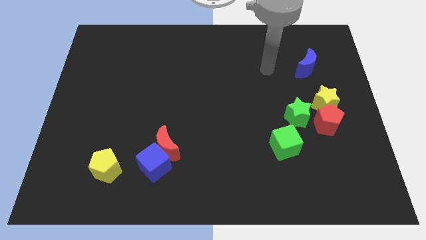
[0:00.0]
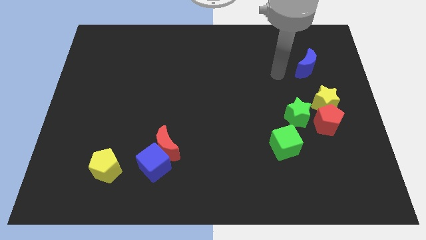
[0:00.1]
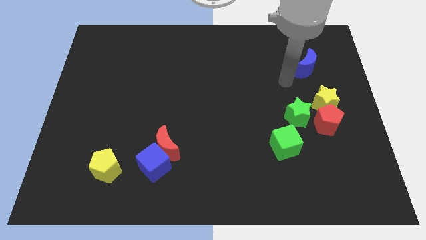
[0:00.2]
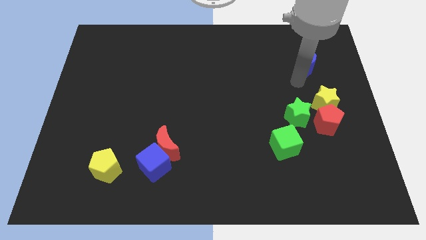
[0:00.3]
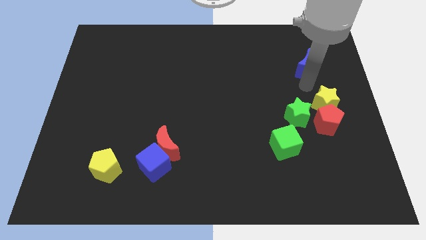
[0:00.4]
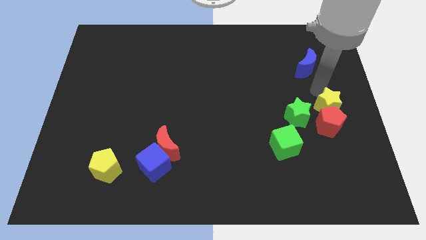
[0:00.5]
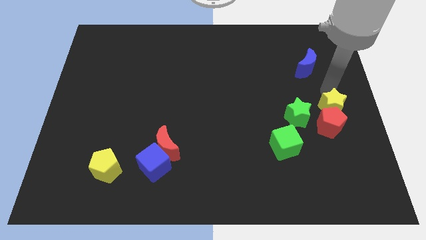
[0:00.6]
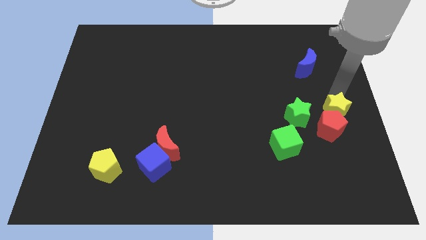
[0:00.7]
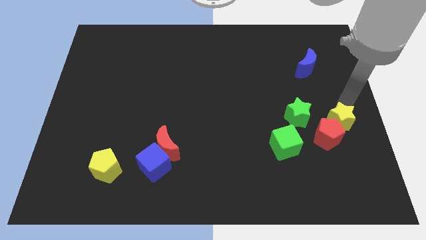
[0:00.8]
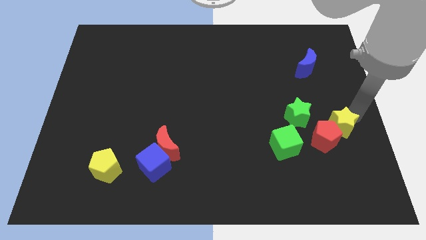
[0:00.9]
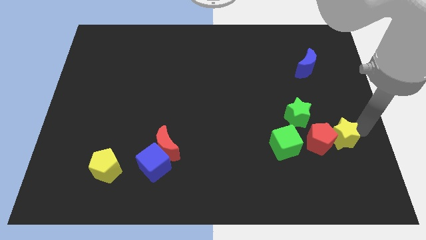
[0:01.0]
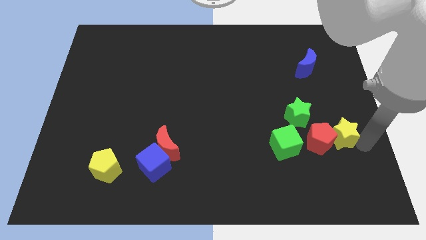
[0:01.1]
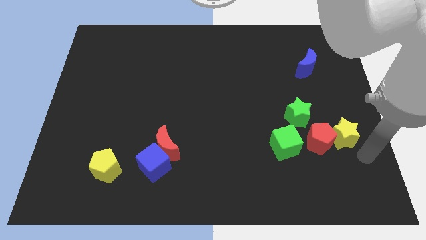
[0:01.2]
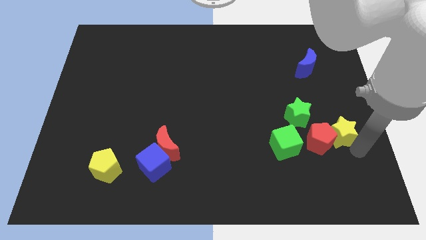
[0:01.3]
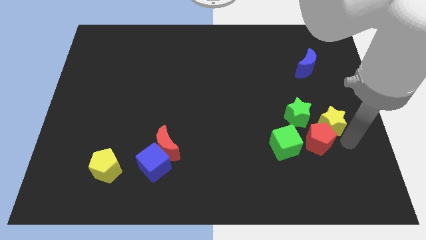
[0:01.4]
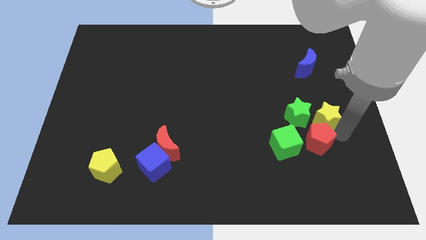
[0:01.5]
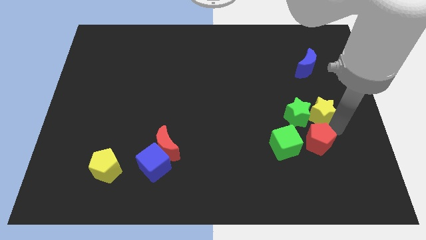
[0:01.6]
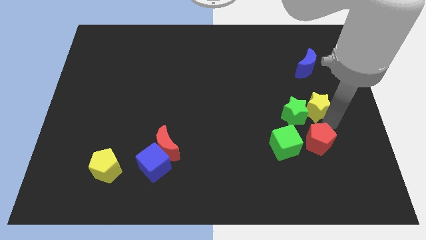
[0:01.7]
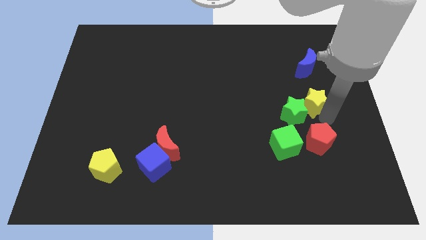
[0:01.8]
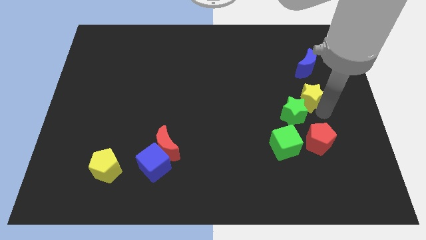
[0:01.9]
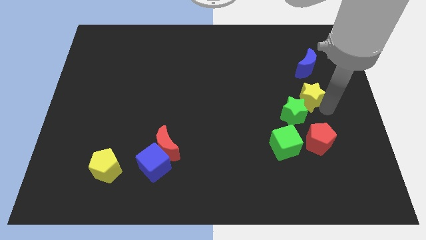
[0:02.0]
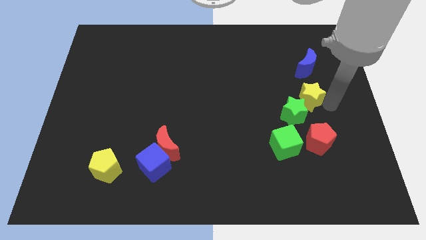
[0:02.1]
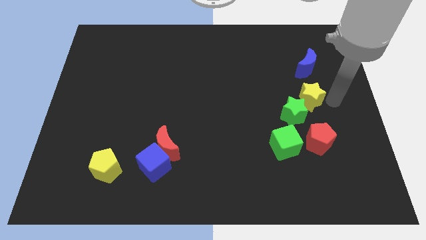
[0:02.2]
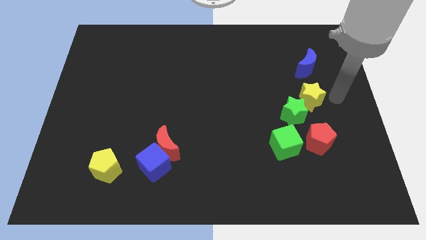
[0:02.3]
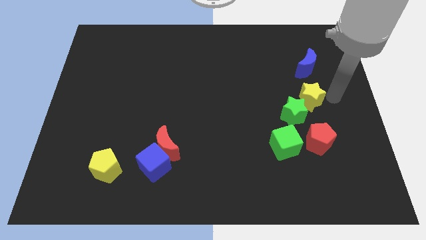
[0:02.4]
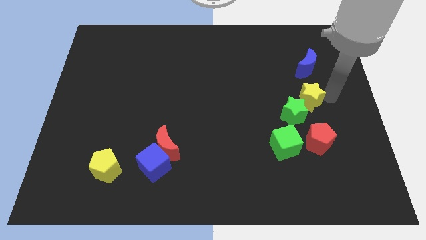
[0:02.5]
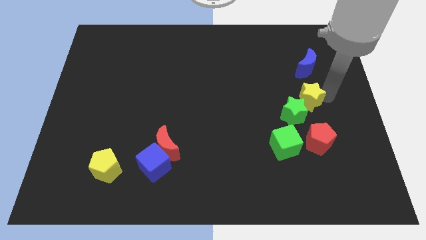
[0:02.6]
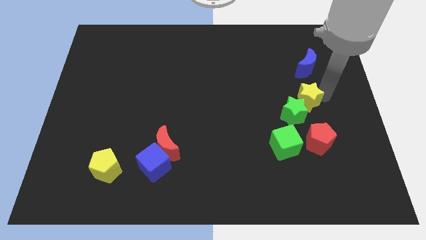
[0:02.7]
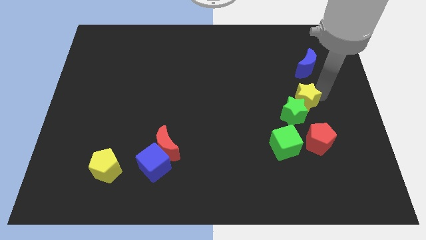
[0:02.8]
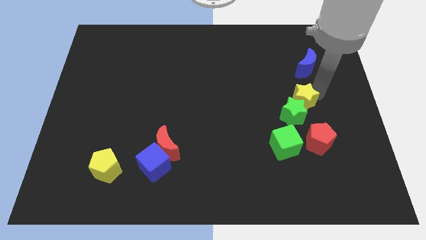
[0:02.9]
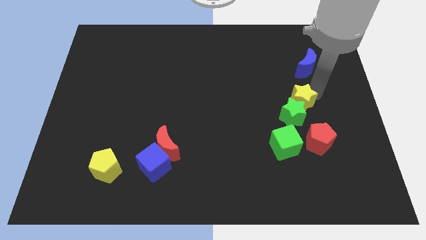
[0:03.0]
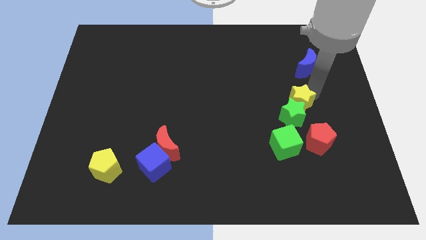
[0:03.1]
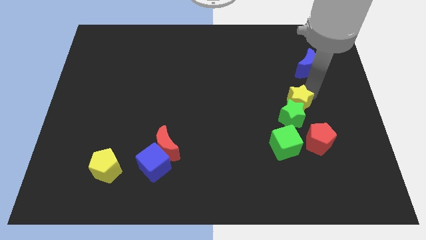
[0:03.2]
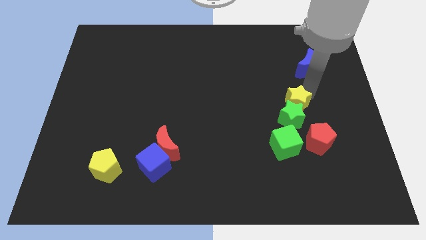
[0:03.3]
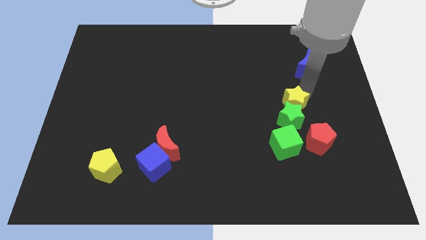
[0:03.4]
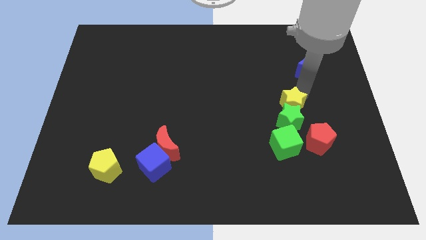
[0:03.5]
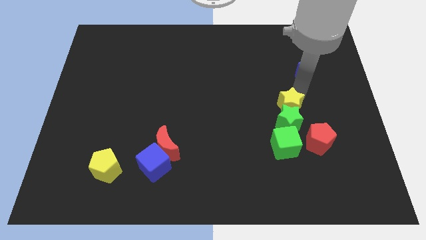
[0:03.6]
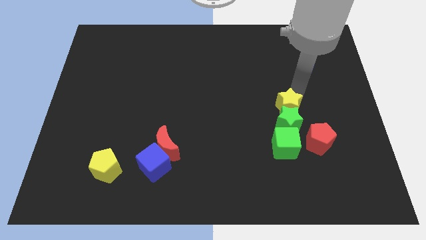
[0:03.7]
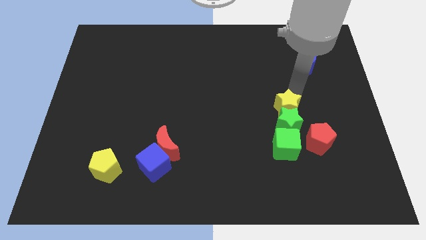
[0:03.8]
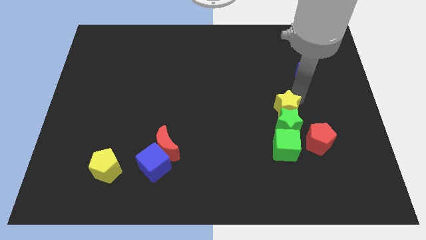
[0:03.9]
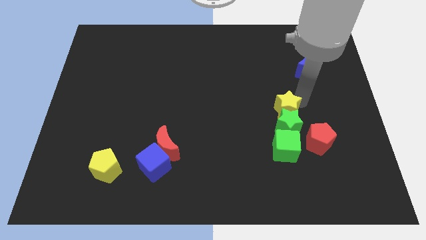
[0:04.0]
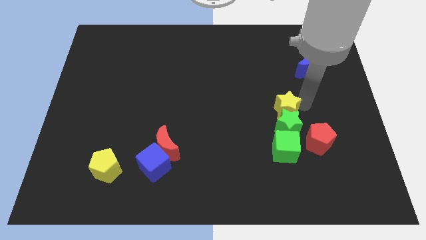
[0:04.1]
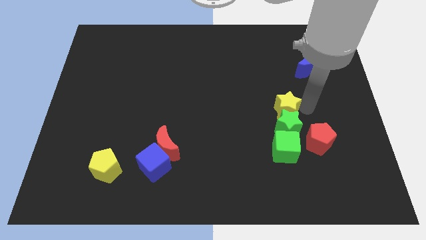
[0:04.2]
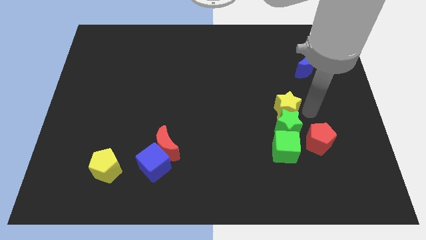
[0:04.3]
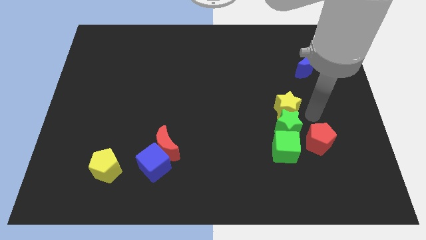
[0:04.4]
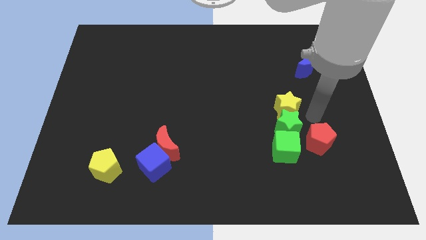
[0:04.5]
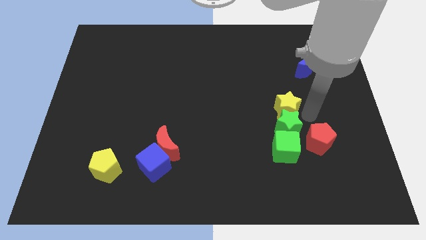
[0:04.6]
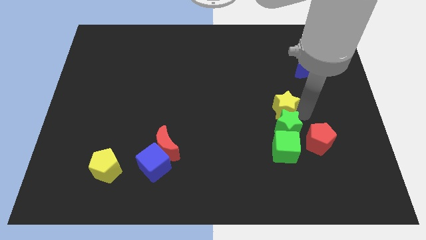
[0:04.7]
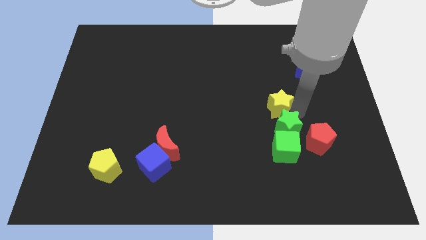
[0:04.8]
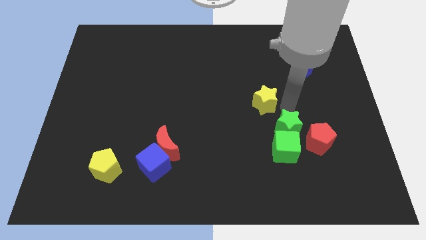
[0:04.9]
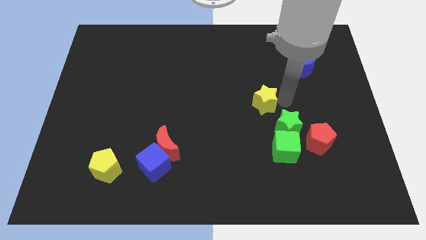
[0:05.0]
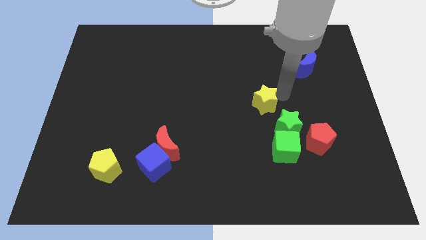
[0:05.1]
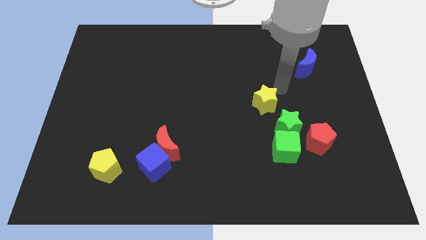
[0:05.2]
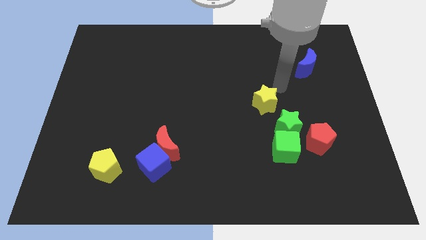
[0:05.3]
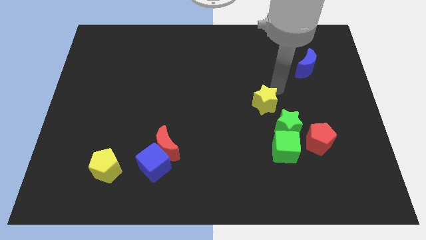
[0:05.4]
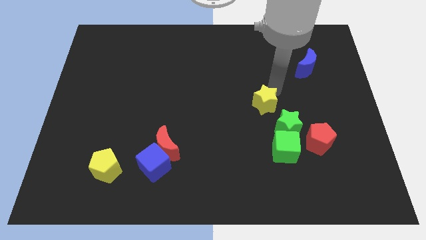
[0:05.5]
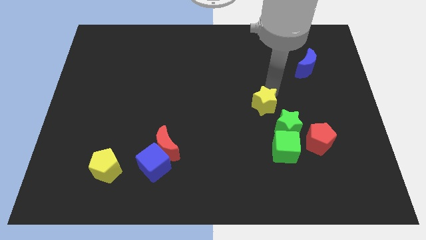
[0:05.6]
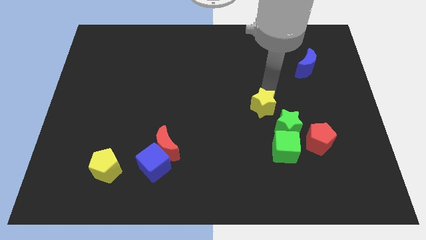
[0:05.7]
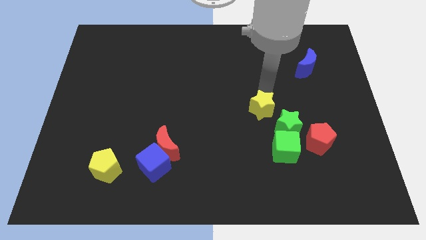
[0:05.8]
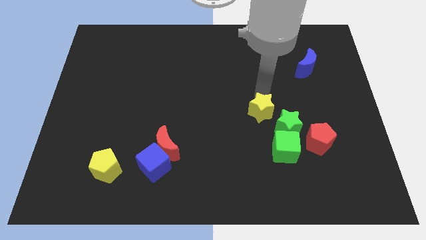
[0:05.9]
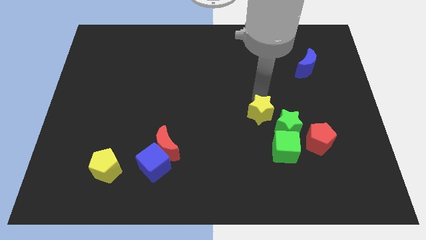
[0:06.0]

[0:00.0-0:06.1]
put the yellow star just left of the green star
